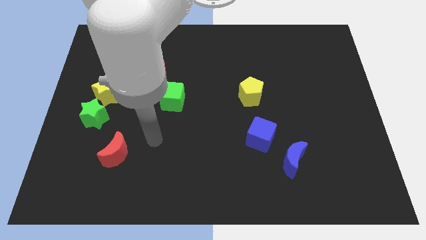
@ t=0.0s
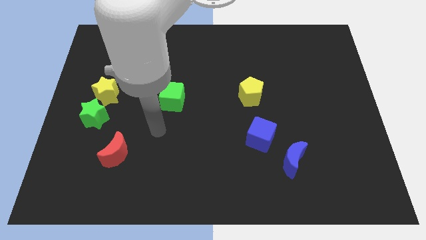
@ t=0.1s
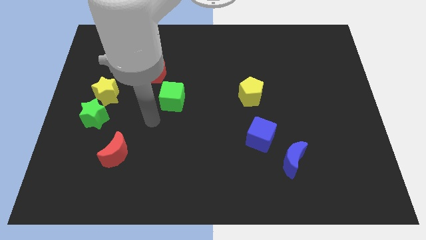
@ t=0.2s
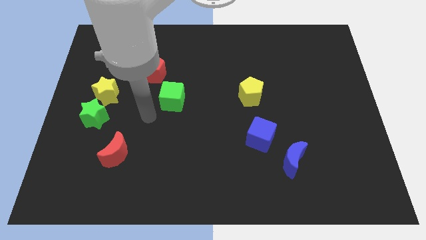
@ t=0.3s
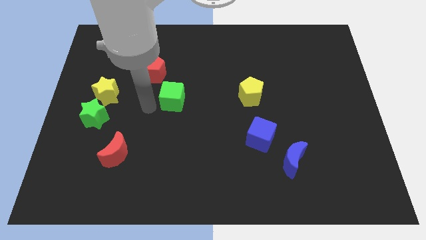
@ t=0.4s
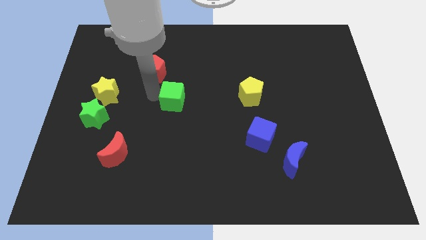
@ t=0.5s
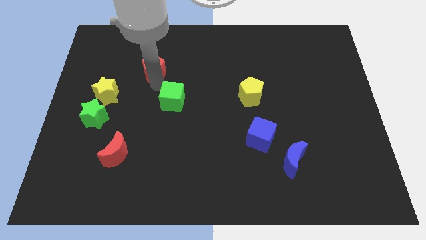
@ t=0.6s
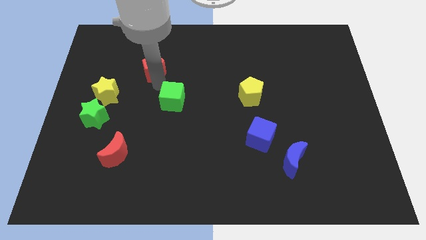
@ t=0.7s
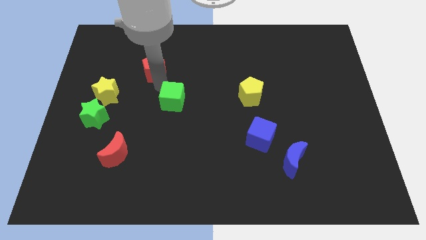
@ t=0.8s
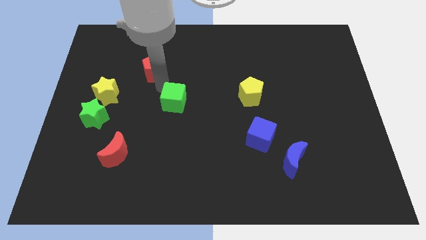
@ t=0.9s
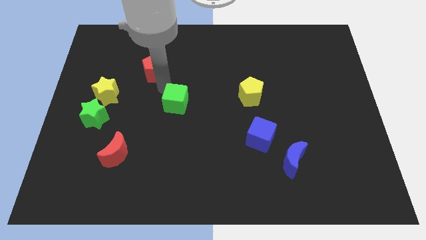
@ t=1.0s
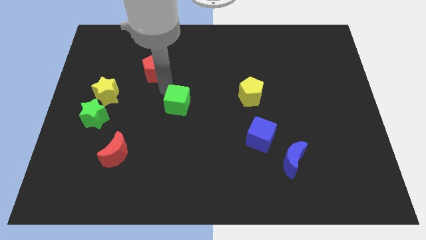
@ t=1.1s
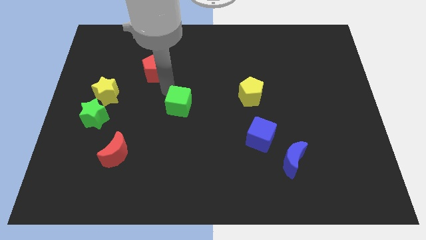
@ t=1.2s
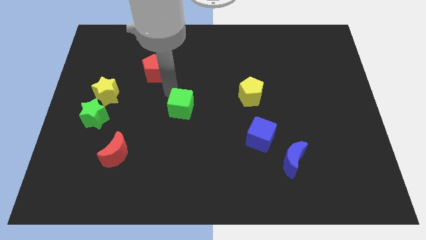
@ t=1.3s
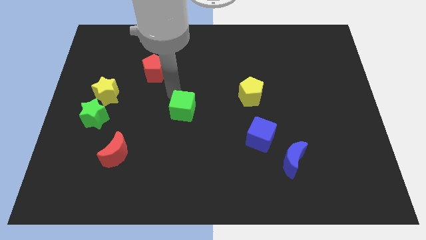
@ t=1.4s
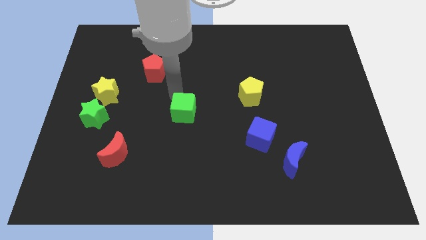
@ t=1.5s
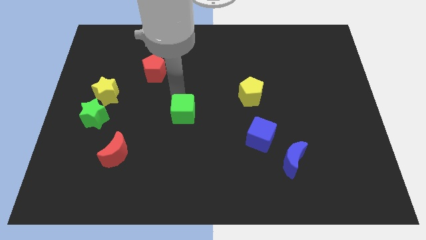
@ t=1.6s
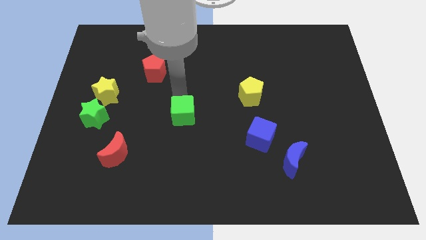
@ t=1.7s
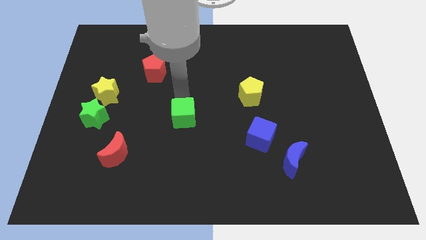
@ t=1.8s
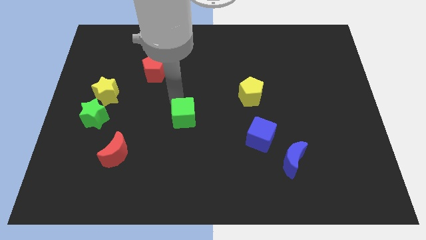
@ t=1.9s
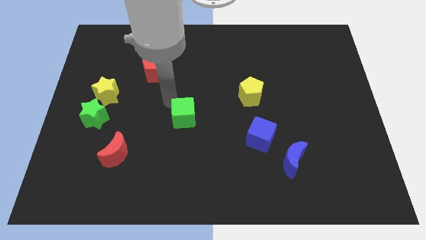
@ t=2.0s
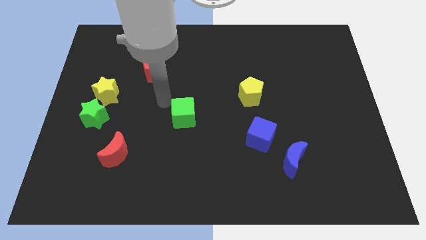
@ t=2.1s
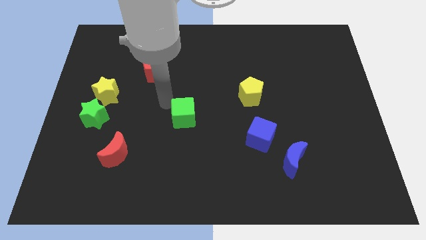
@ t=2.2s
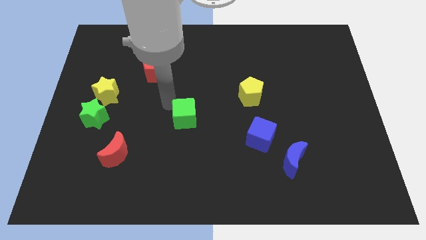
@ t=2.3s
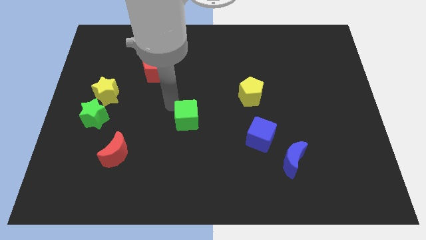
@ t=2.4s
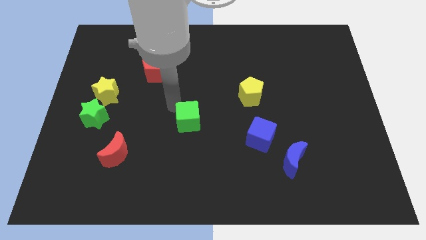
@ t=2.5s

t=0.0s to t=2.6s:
slide the green cube down and right a bit

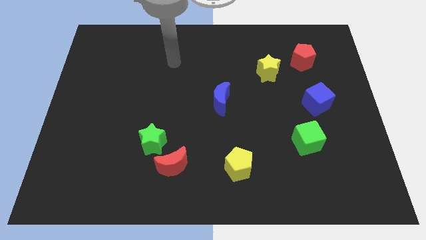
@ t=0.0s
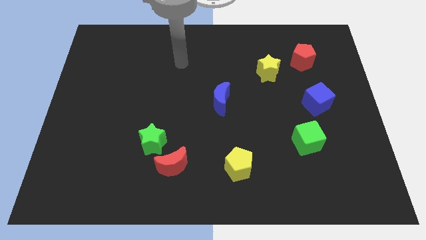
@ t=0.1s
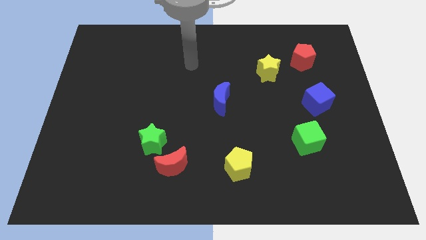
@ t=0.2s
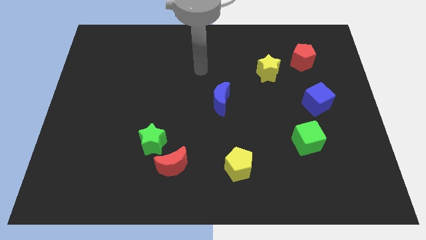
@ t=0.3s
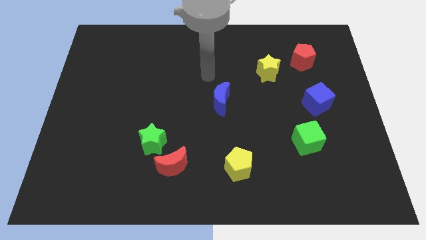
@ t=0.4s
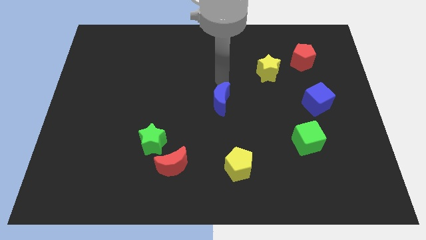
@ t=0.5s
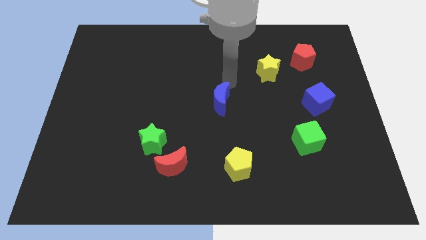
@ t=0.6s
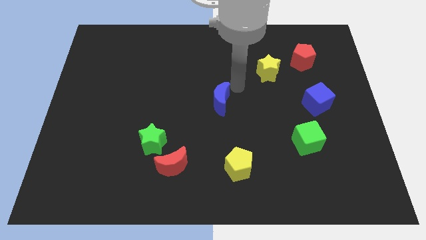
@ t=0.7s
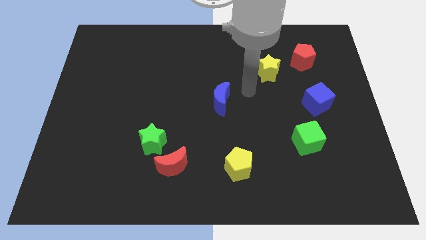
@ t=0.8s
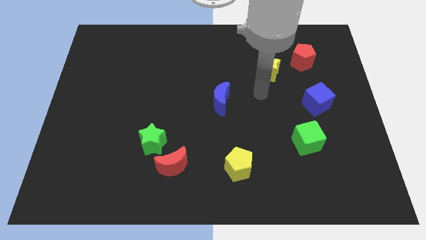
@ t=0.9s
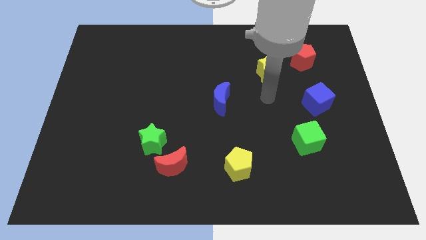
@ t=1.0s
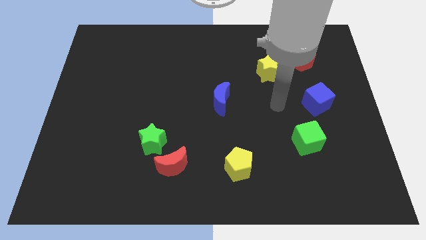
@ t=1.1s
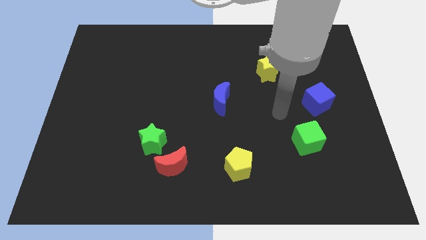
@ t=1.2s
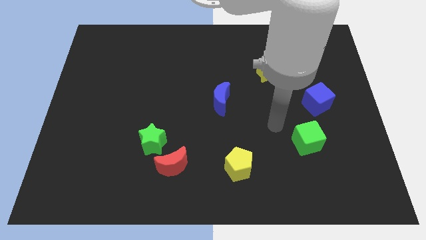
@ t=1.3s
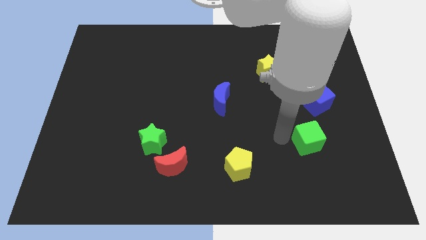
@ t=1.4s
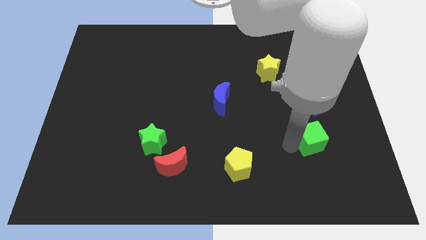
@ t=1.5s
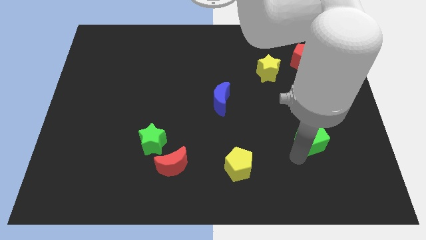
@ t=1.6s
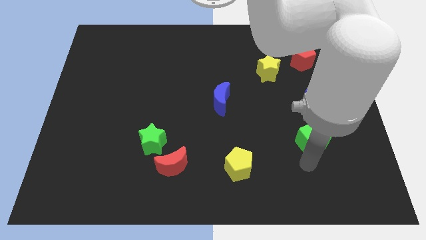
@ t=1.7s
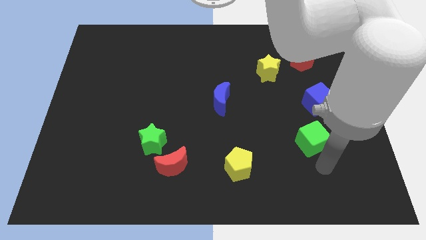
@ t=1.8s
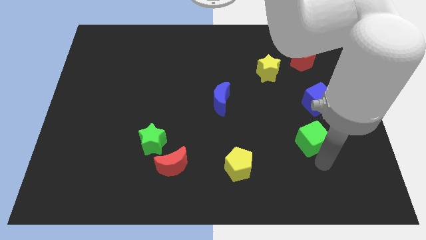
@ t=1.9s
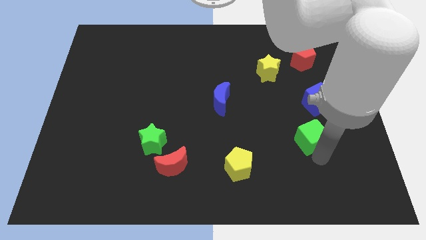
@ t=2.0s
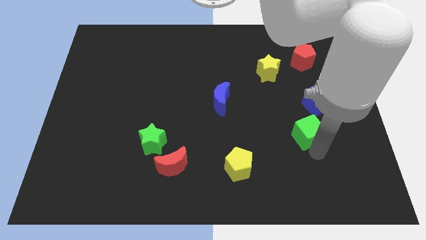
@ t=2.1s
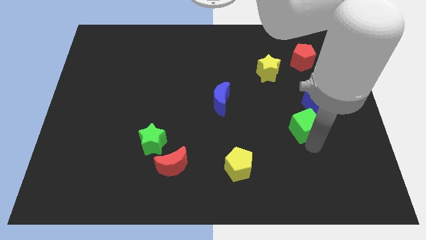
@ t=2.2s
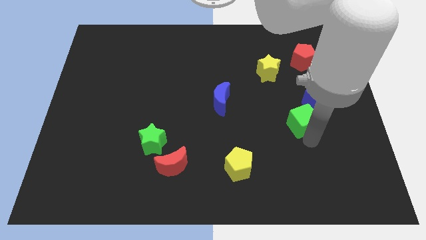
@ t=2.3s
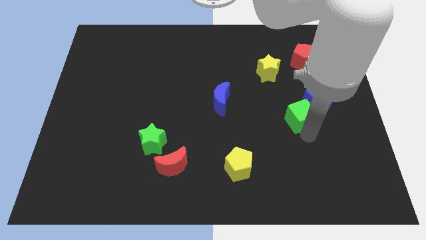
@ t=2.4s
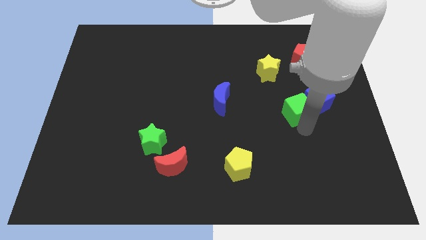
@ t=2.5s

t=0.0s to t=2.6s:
slide the green cube upwards a little bit

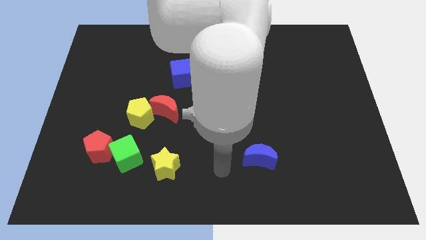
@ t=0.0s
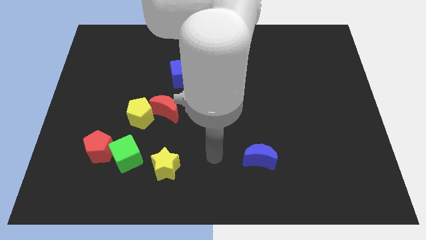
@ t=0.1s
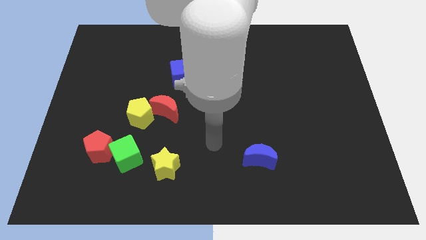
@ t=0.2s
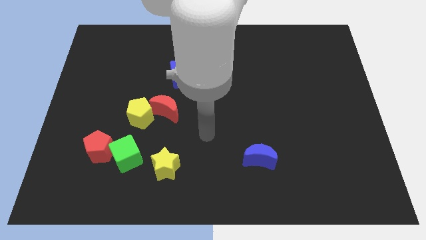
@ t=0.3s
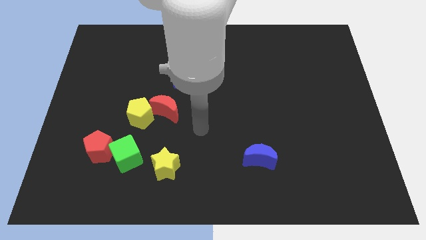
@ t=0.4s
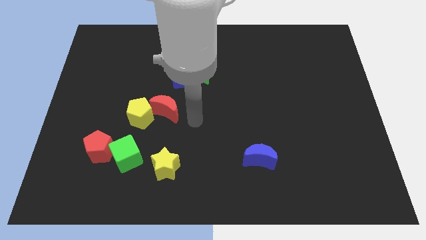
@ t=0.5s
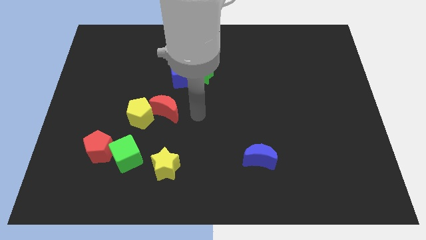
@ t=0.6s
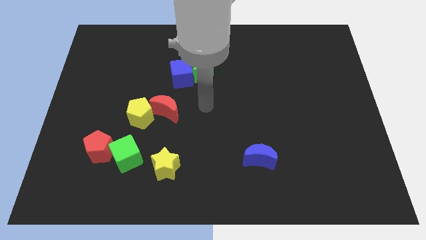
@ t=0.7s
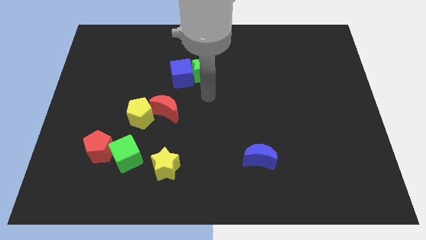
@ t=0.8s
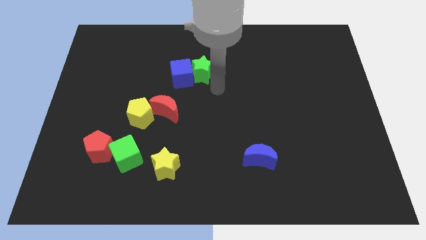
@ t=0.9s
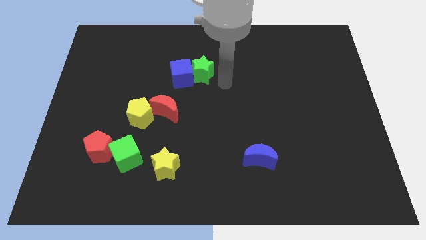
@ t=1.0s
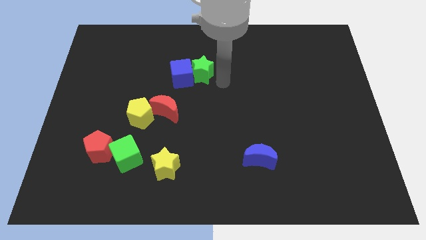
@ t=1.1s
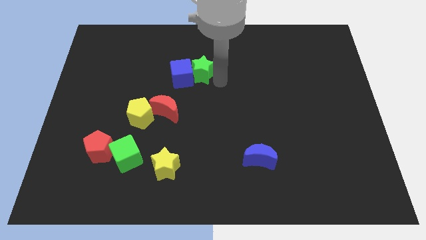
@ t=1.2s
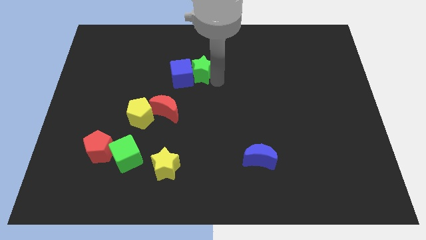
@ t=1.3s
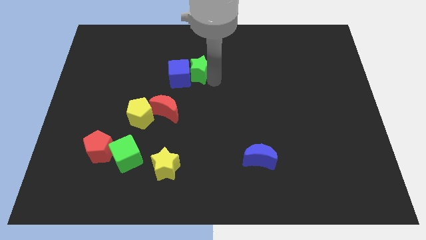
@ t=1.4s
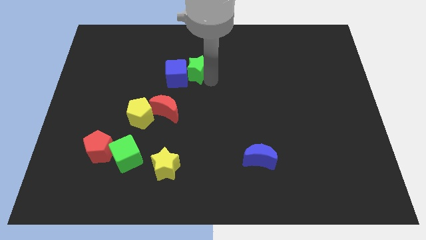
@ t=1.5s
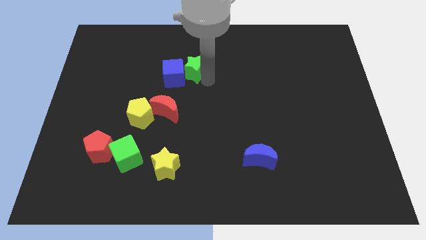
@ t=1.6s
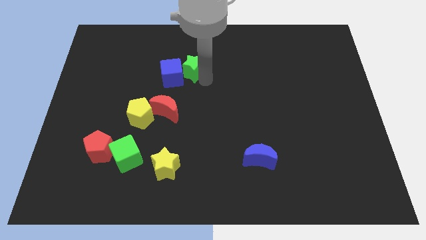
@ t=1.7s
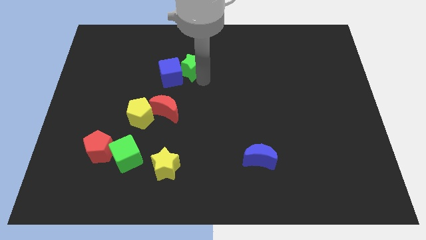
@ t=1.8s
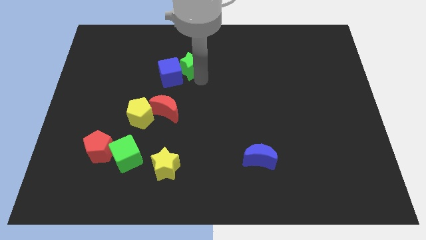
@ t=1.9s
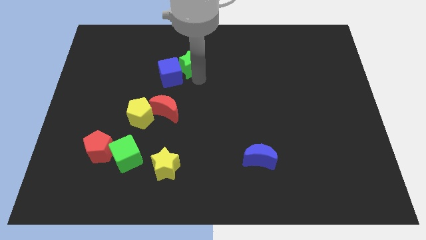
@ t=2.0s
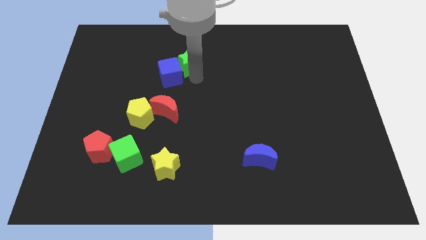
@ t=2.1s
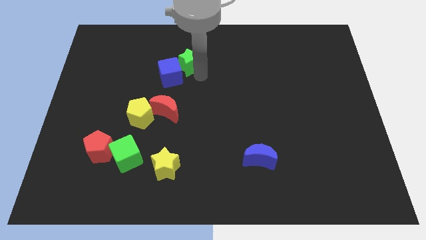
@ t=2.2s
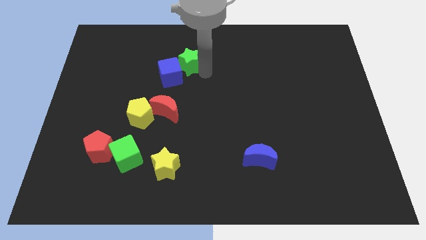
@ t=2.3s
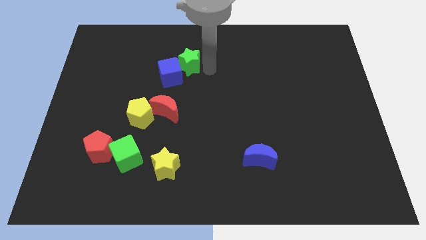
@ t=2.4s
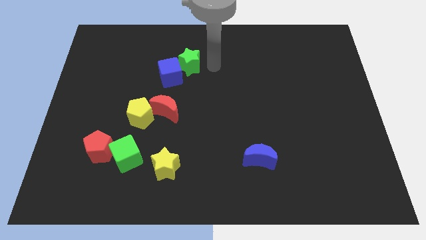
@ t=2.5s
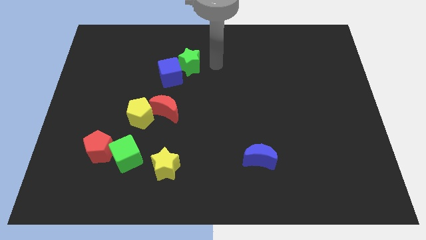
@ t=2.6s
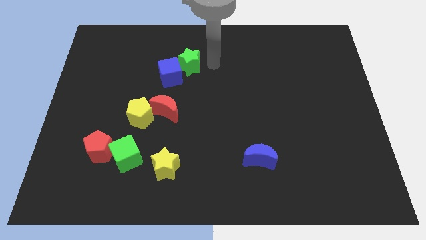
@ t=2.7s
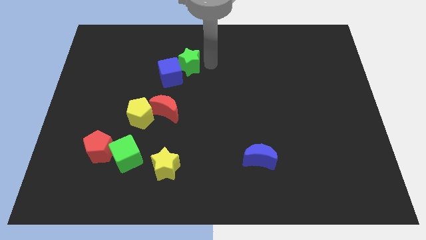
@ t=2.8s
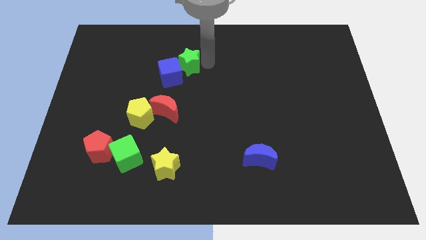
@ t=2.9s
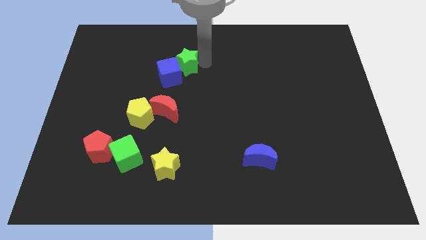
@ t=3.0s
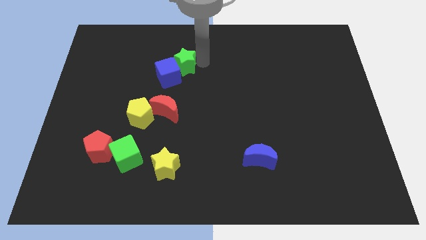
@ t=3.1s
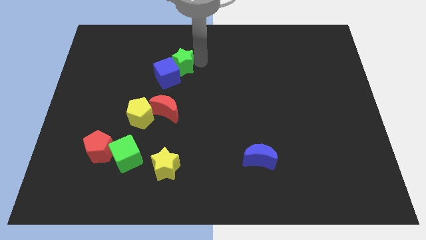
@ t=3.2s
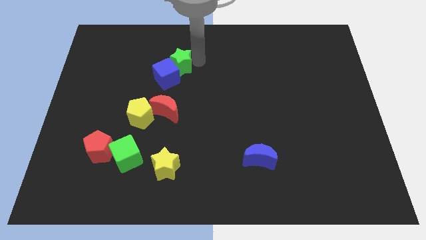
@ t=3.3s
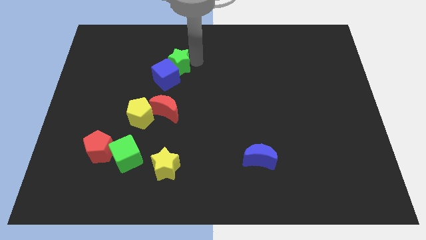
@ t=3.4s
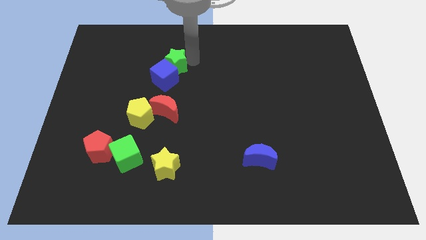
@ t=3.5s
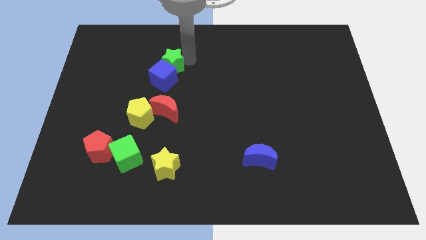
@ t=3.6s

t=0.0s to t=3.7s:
move the green star to the left a little
